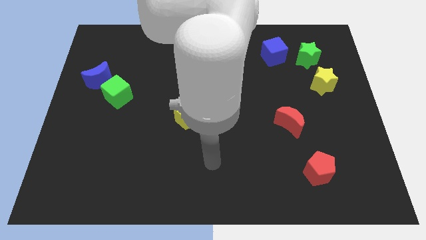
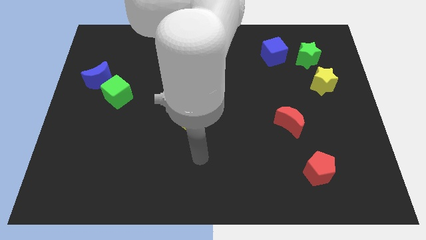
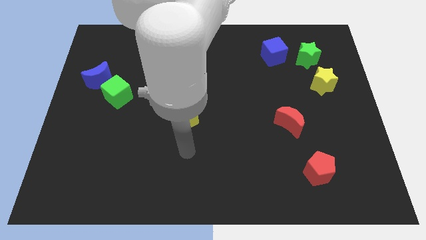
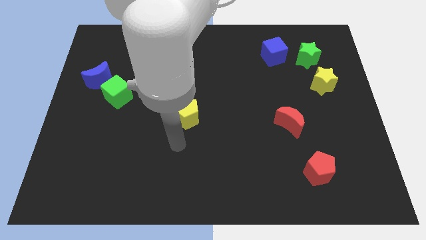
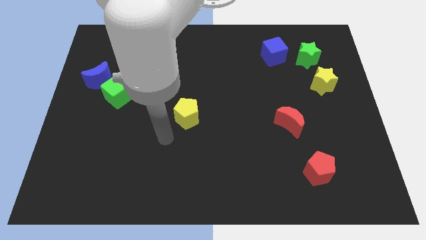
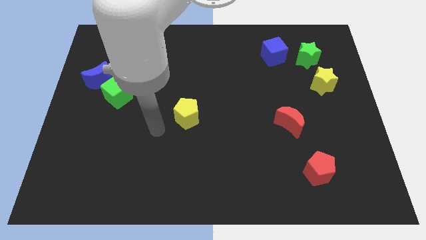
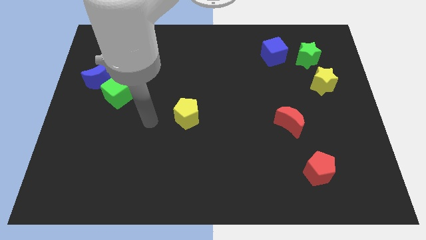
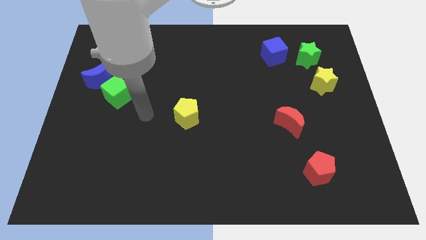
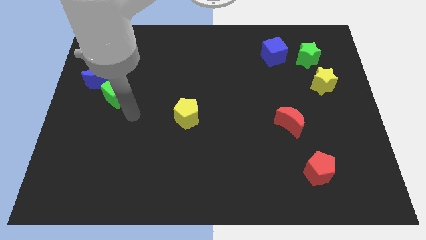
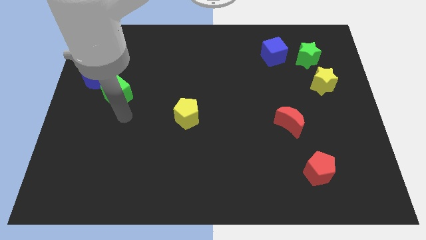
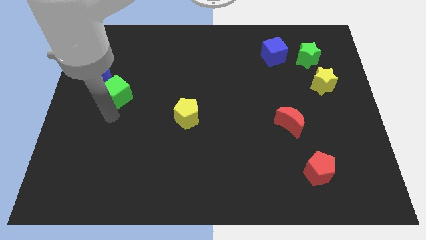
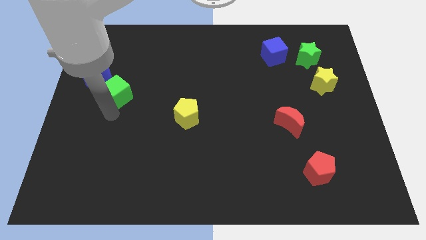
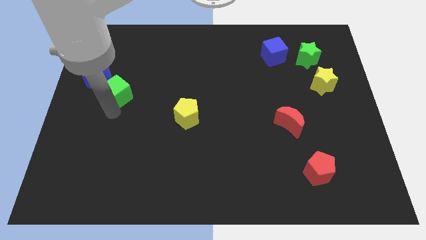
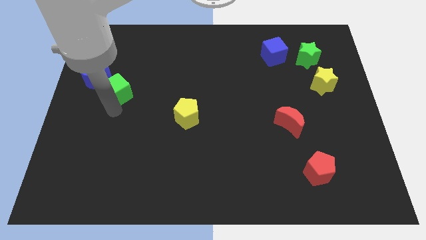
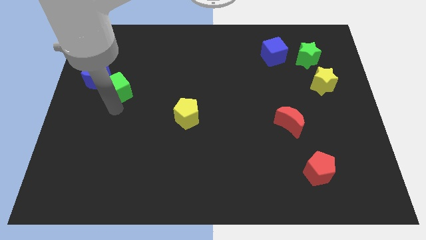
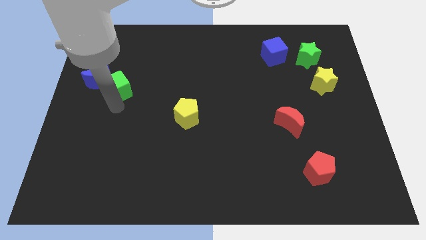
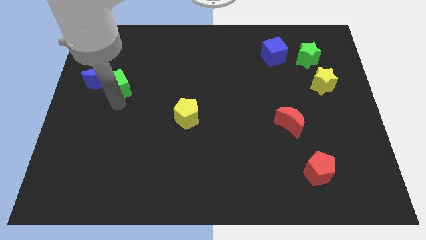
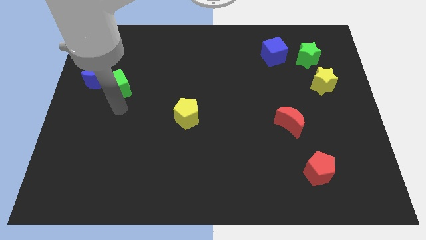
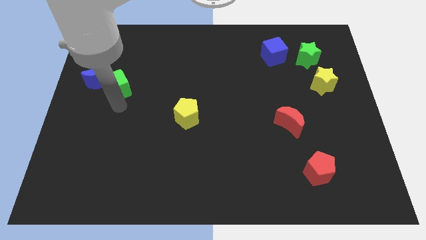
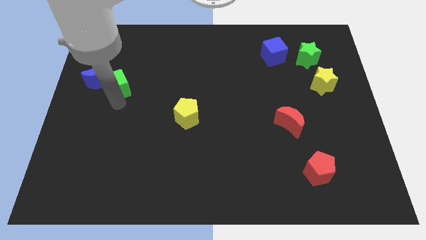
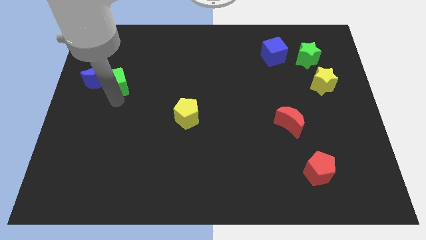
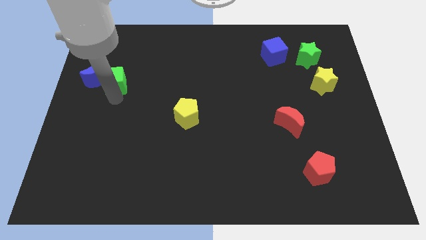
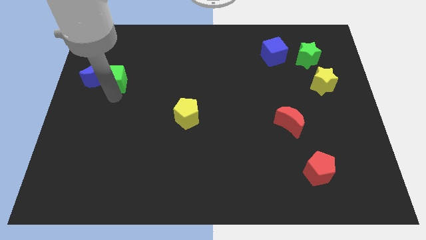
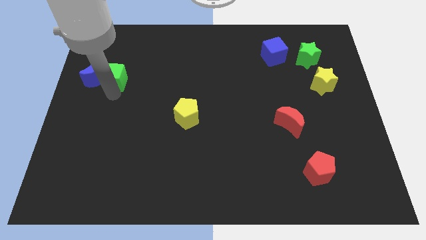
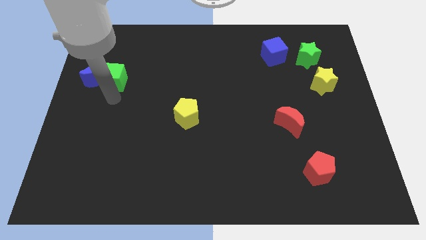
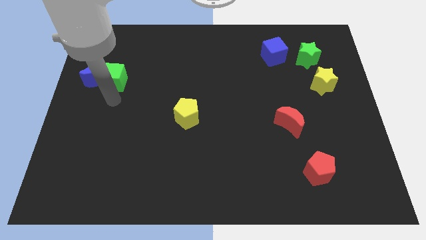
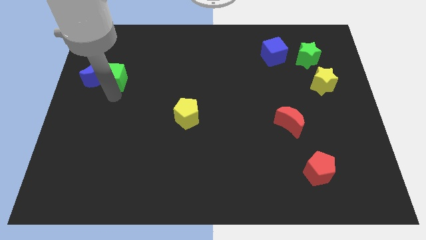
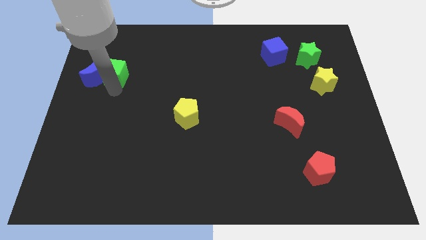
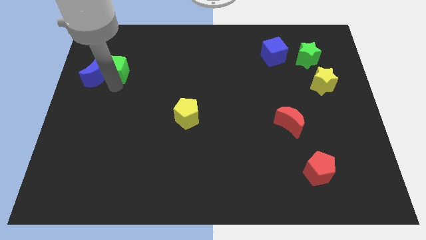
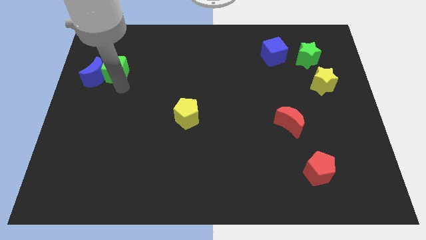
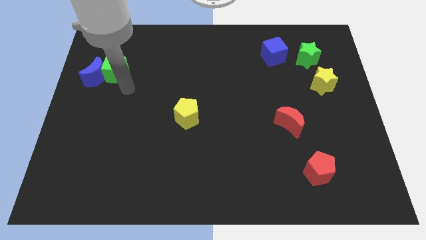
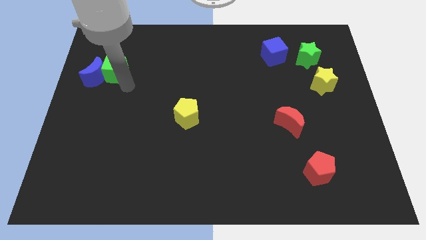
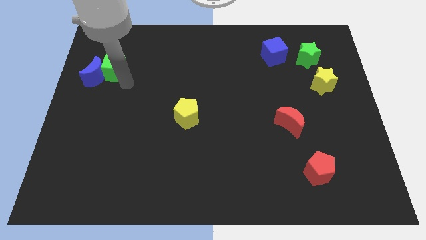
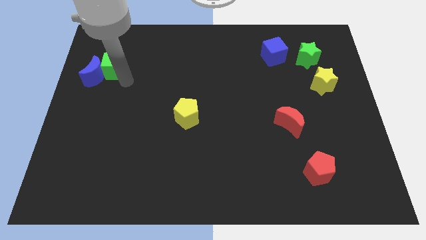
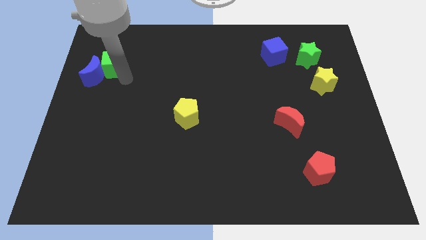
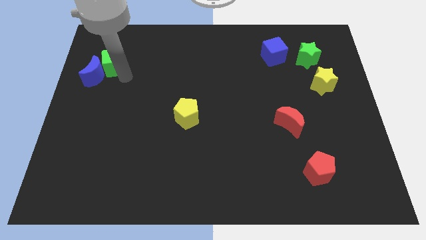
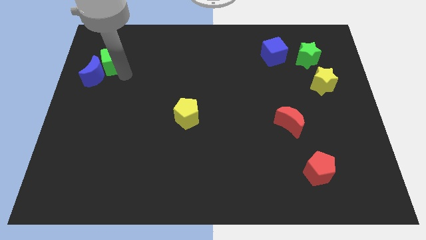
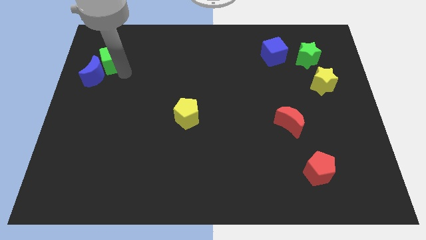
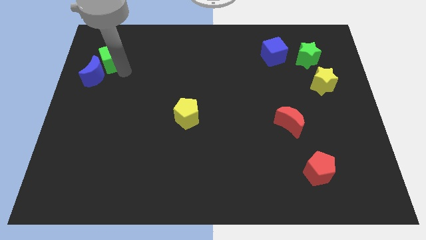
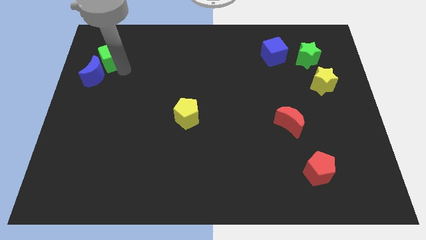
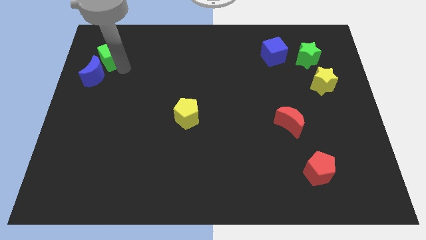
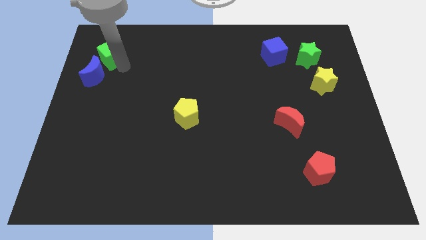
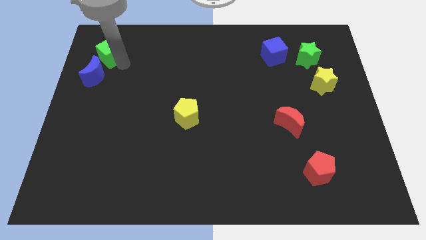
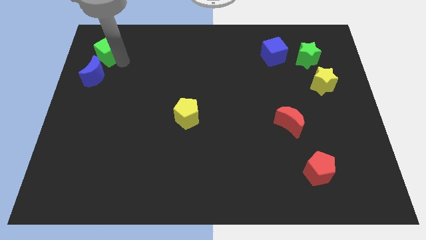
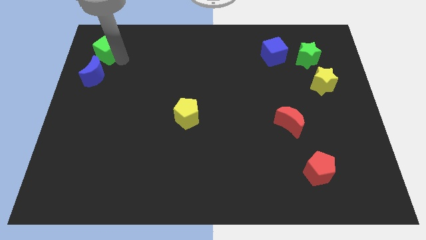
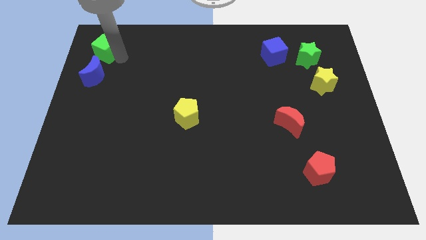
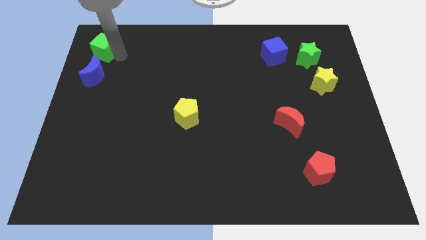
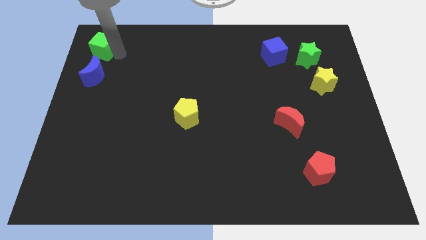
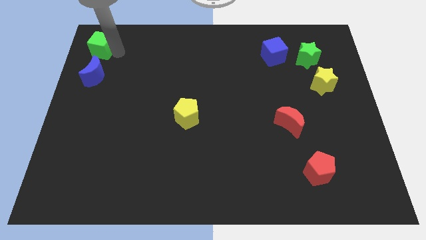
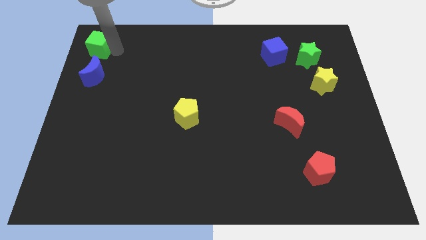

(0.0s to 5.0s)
slide the green cube to the top left of the board

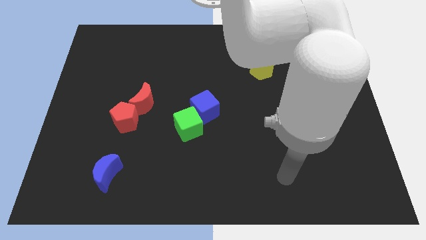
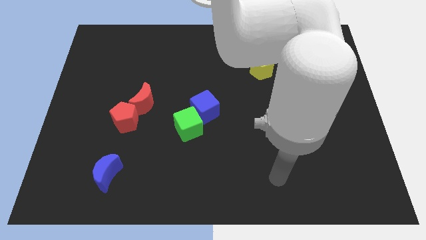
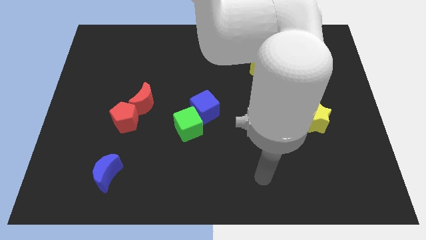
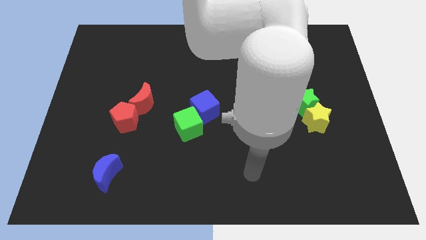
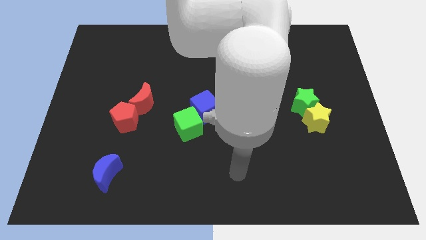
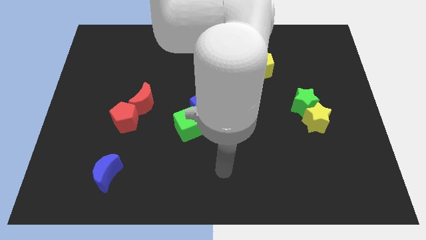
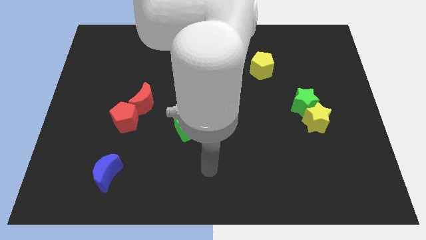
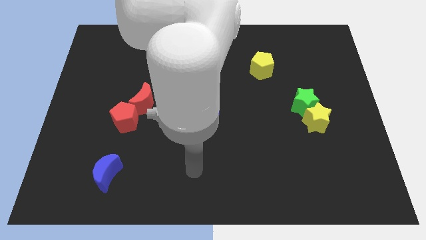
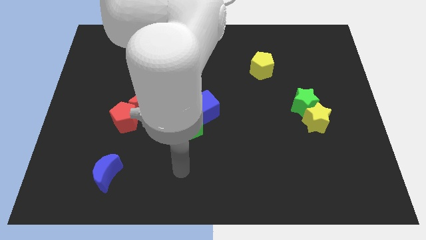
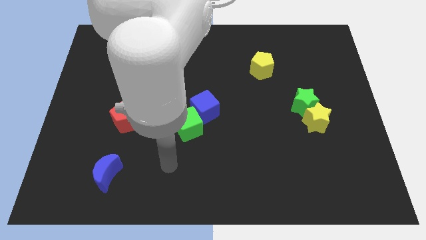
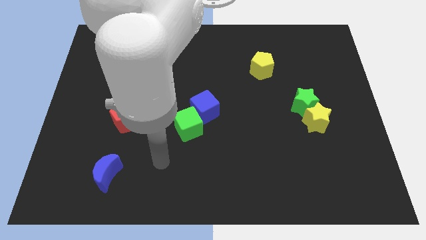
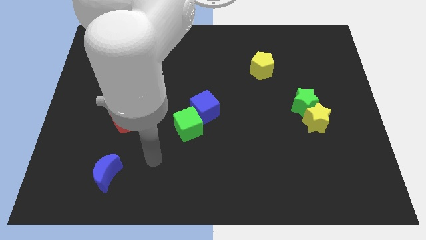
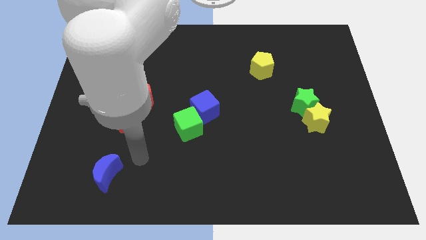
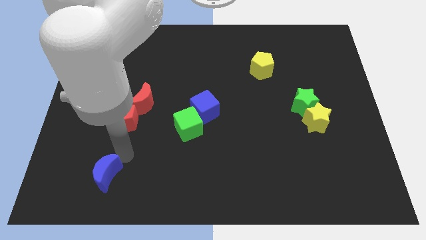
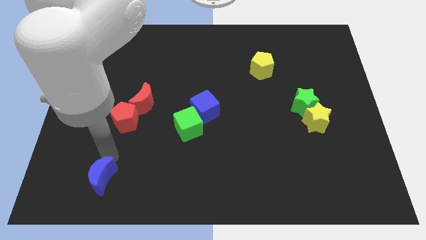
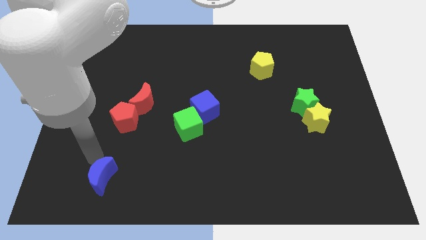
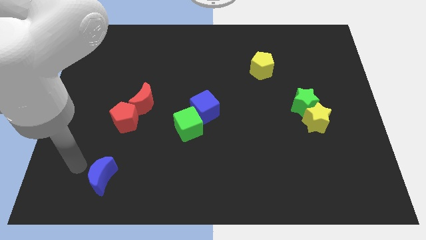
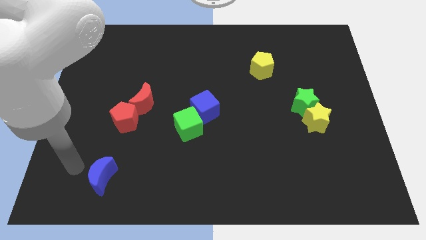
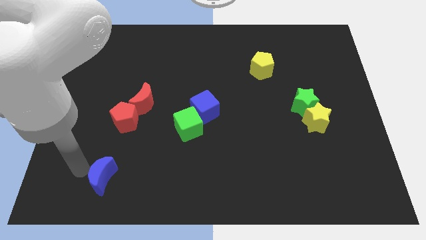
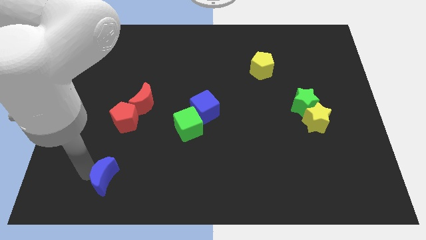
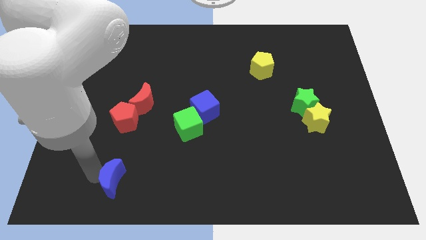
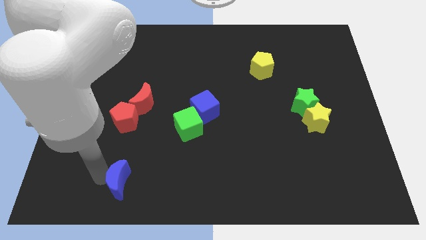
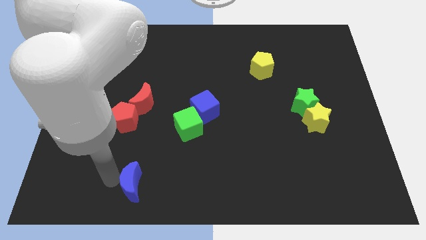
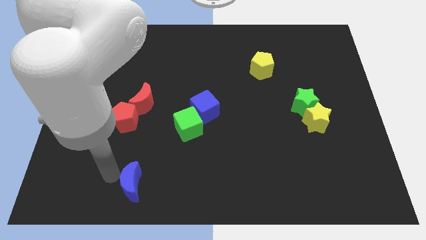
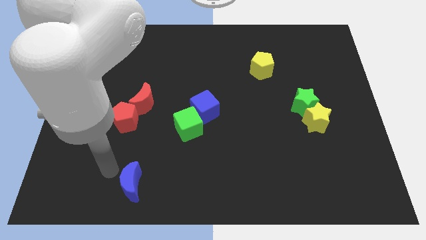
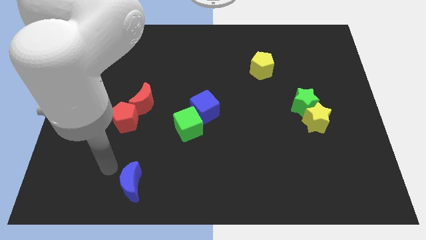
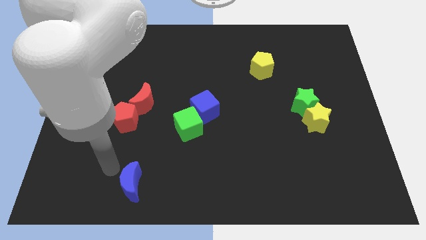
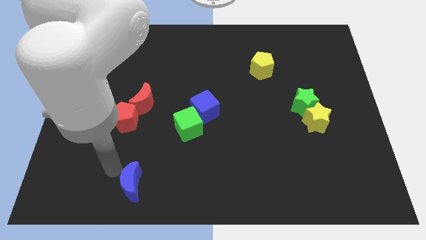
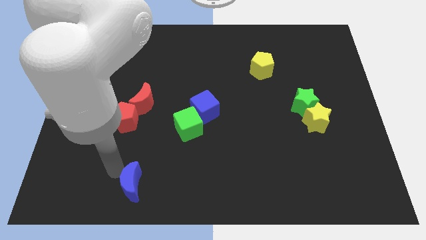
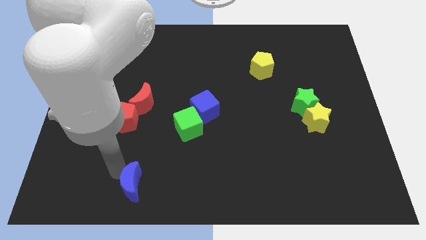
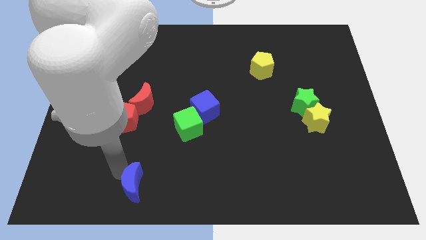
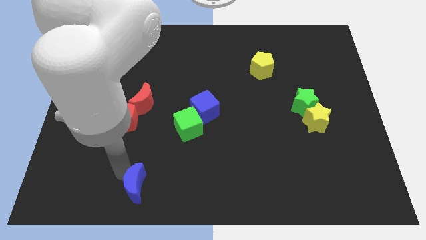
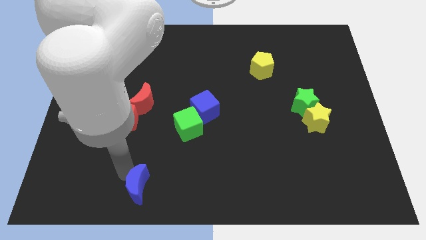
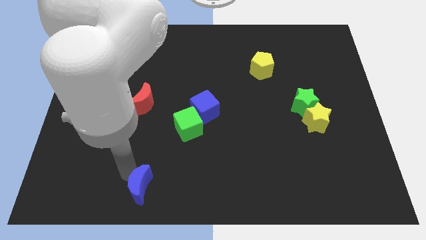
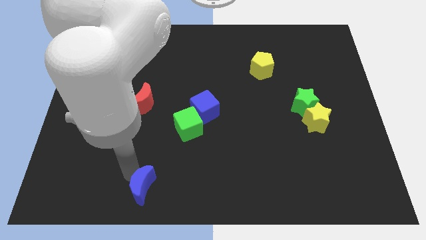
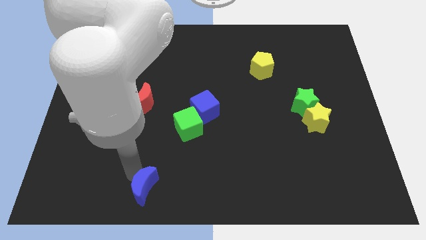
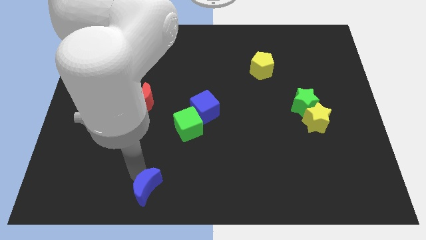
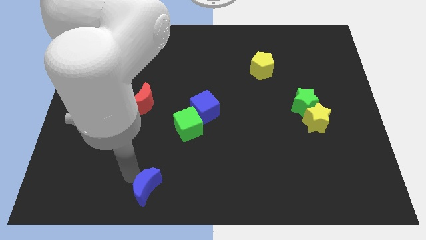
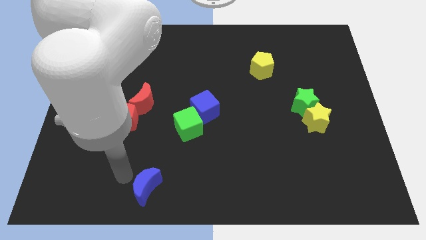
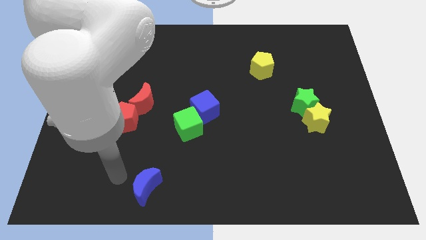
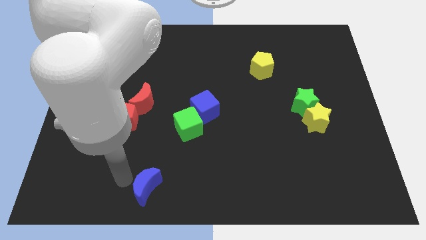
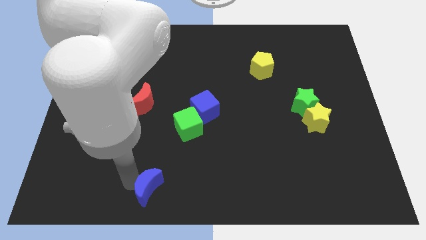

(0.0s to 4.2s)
move the blue moon to the bottom
